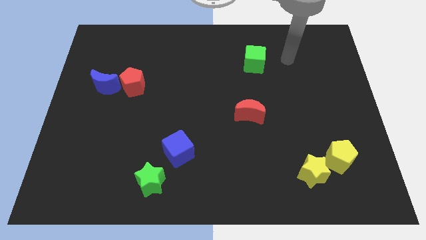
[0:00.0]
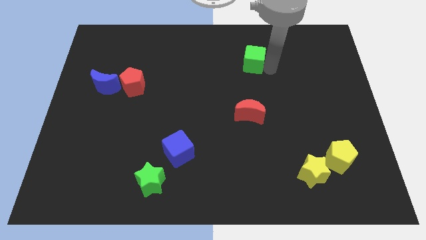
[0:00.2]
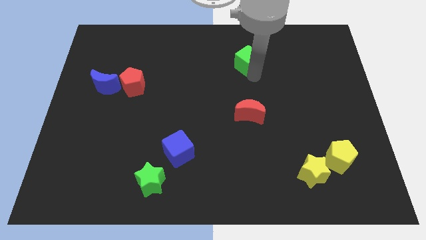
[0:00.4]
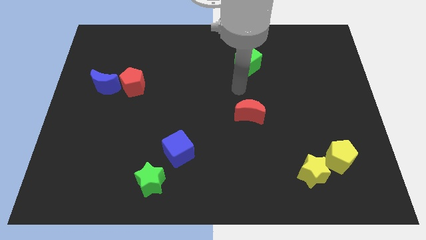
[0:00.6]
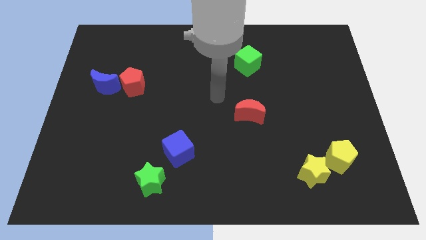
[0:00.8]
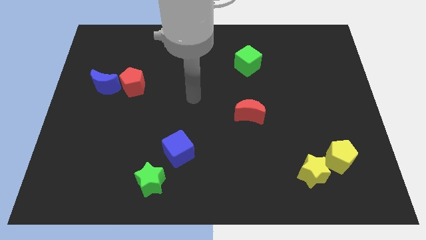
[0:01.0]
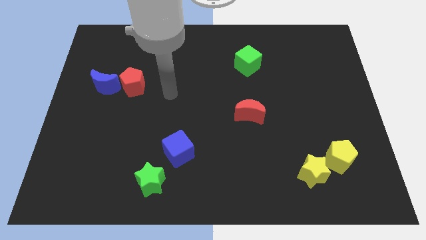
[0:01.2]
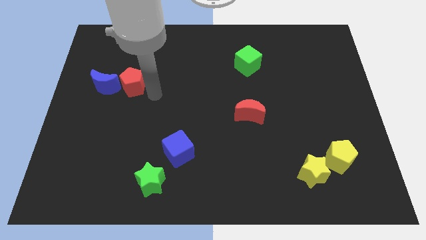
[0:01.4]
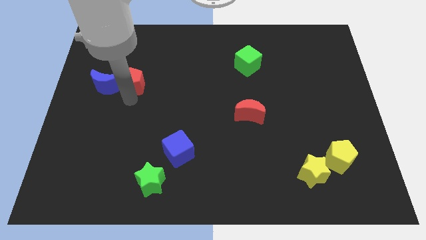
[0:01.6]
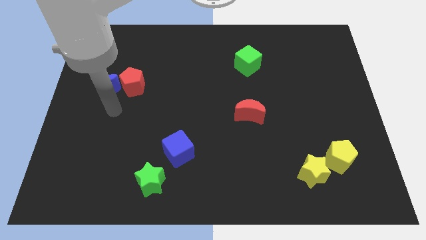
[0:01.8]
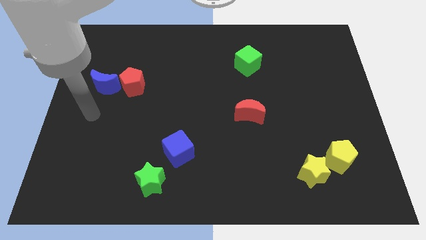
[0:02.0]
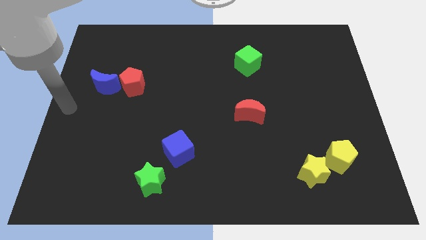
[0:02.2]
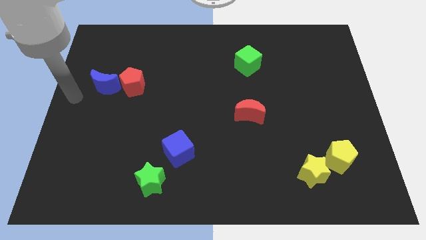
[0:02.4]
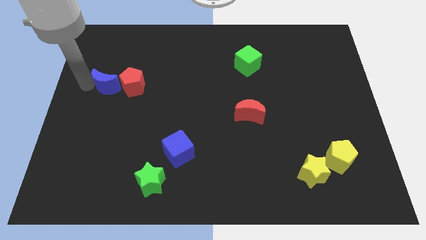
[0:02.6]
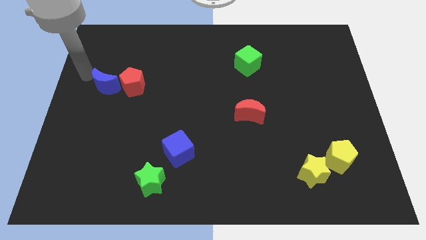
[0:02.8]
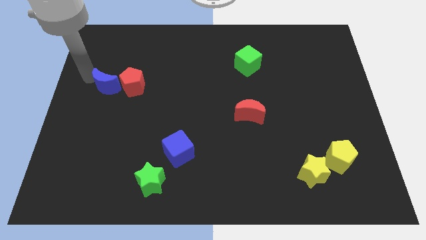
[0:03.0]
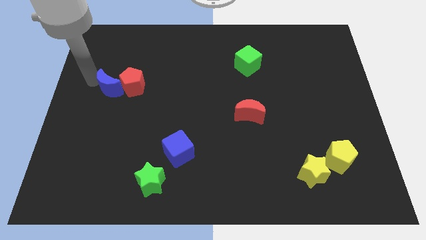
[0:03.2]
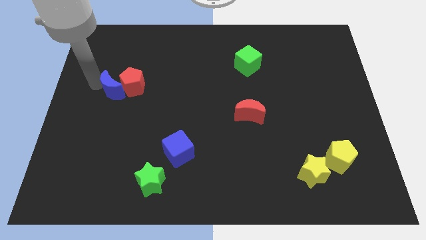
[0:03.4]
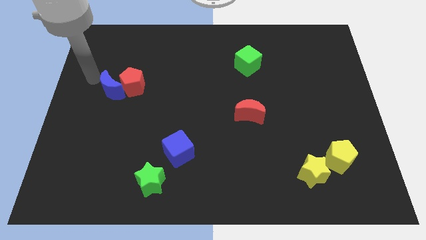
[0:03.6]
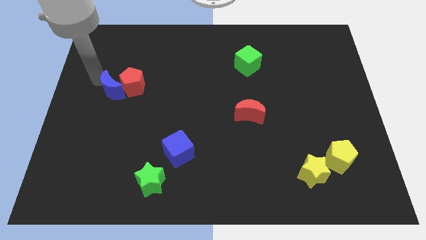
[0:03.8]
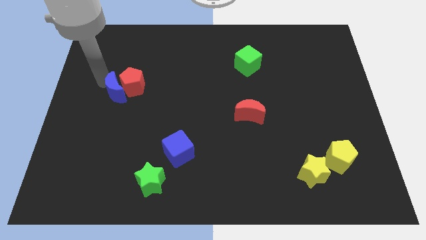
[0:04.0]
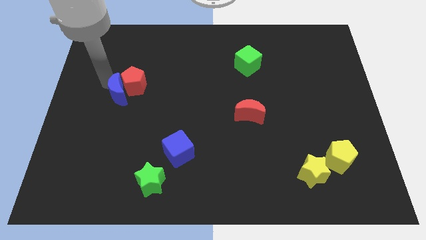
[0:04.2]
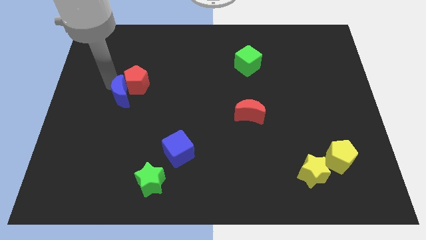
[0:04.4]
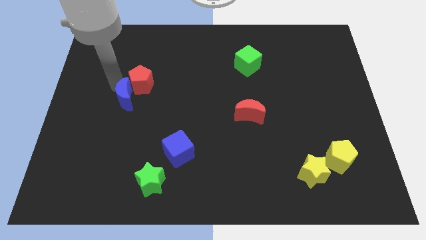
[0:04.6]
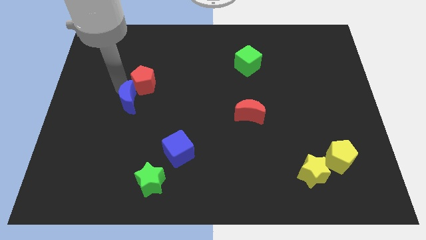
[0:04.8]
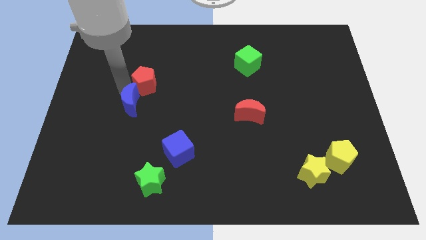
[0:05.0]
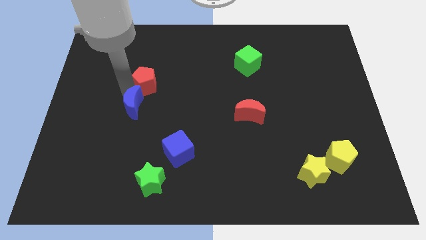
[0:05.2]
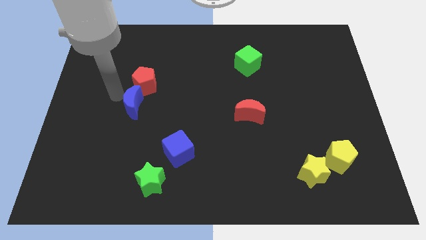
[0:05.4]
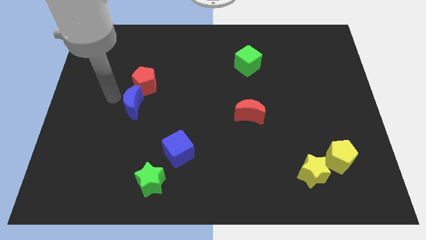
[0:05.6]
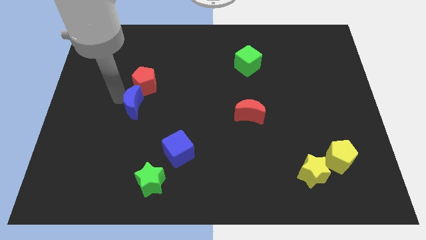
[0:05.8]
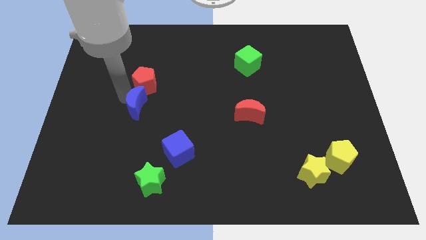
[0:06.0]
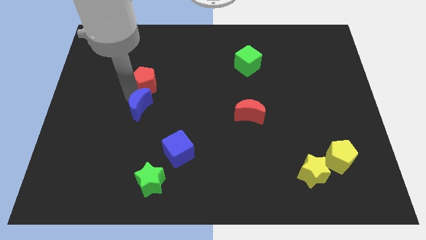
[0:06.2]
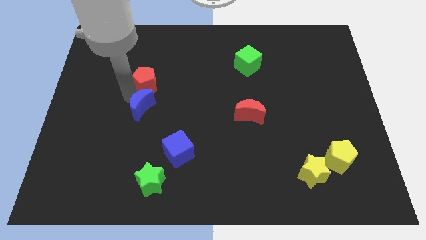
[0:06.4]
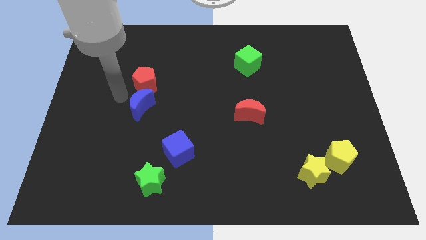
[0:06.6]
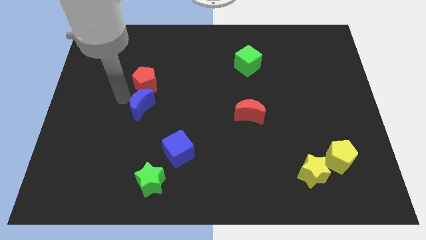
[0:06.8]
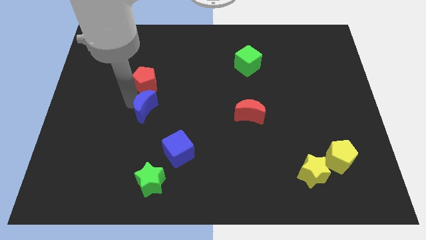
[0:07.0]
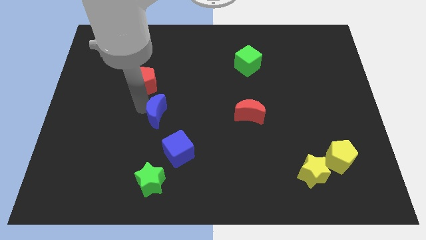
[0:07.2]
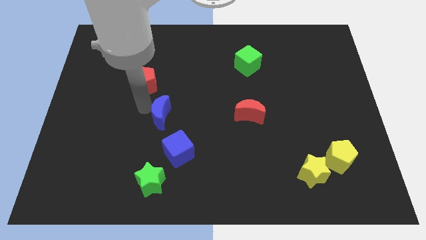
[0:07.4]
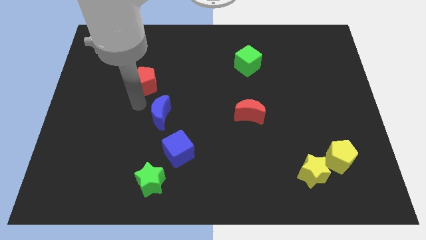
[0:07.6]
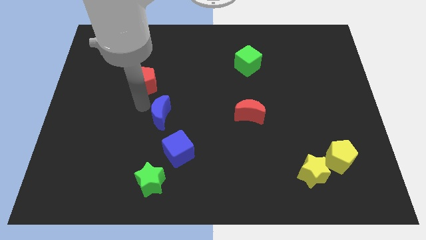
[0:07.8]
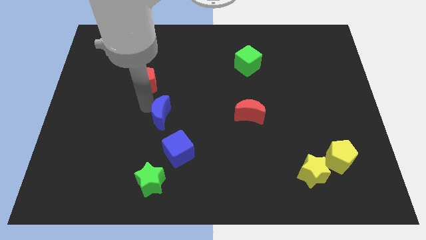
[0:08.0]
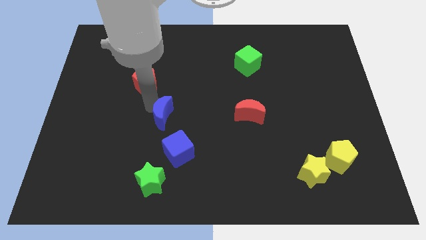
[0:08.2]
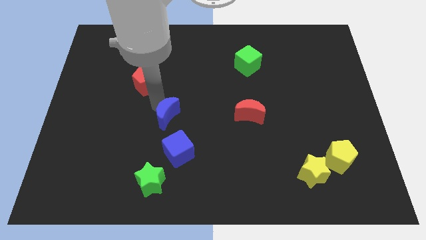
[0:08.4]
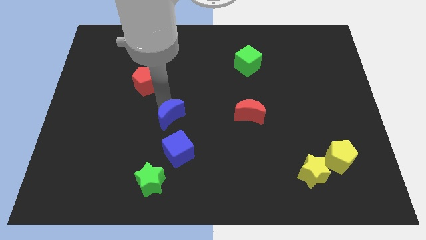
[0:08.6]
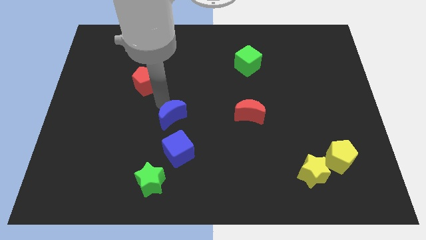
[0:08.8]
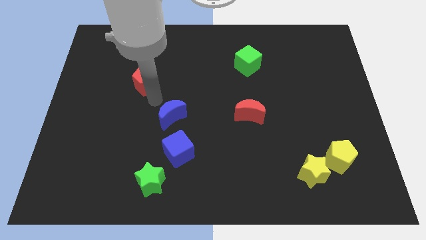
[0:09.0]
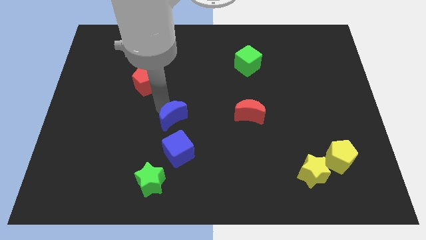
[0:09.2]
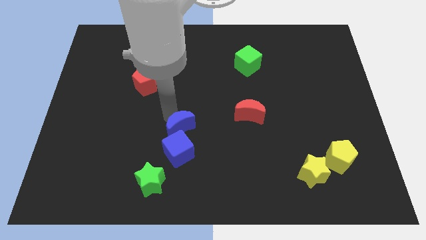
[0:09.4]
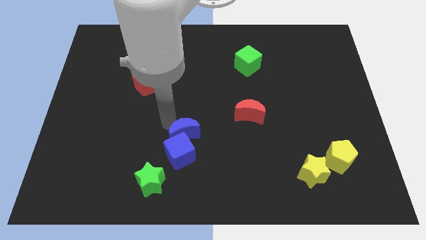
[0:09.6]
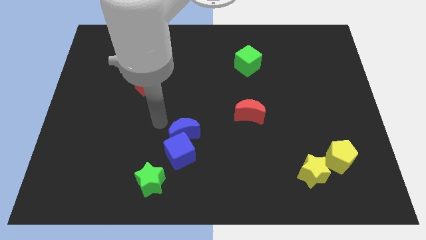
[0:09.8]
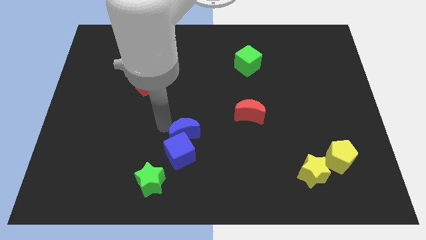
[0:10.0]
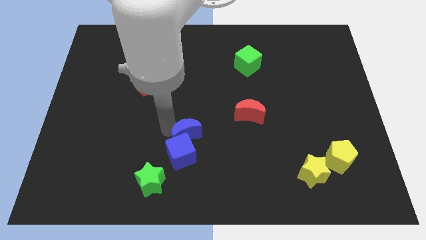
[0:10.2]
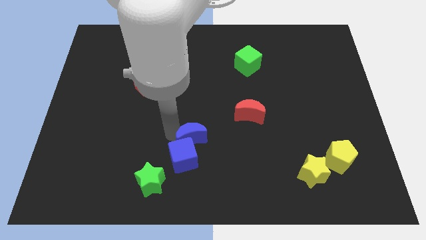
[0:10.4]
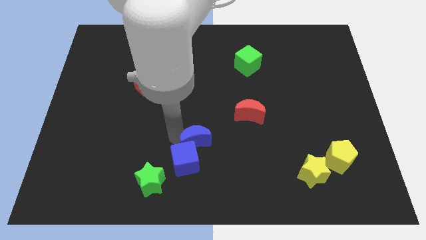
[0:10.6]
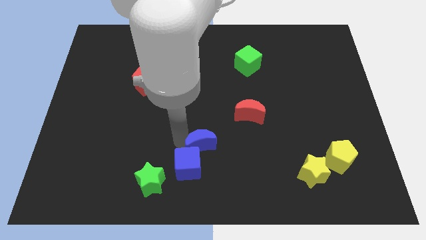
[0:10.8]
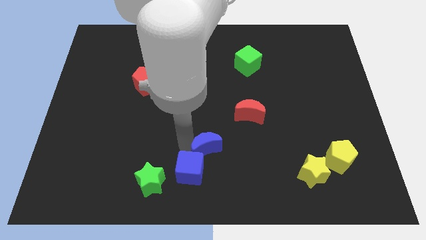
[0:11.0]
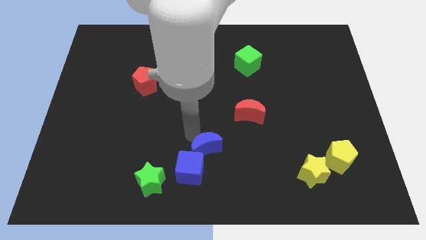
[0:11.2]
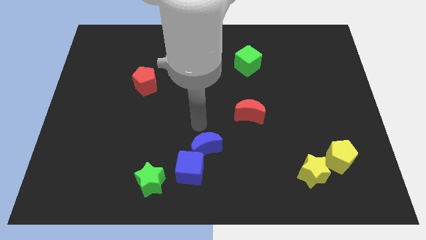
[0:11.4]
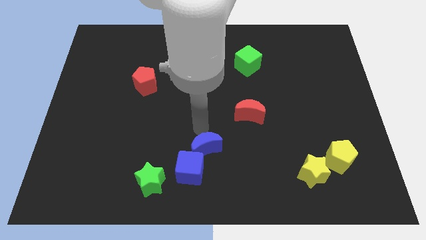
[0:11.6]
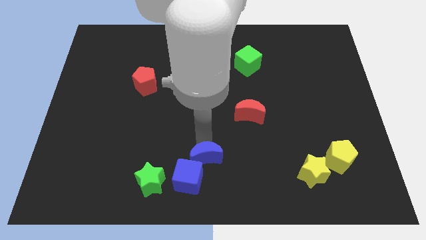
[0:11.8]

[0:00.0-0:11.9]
slide the blue moon to the bottom
